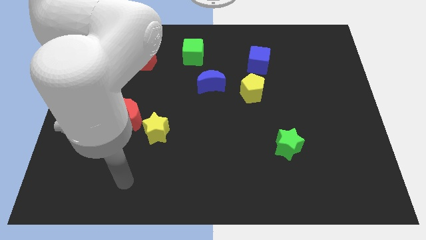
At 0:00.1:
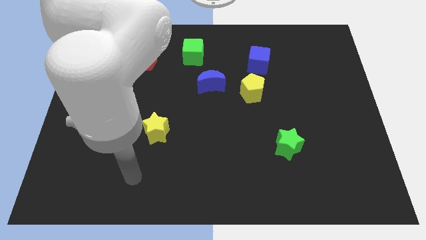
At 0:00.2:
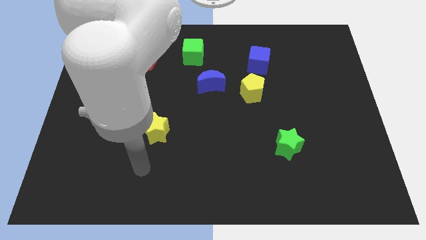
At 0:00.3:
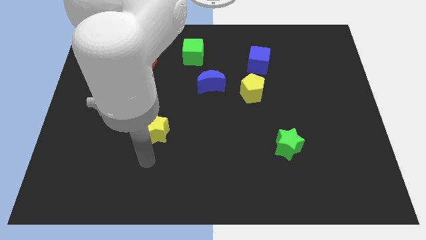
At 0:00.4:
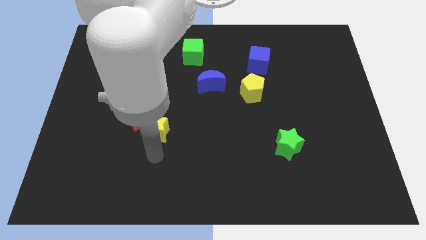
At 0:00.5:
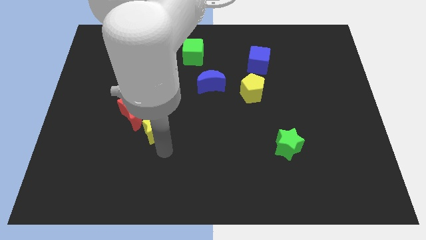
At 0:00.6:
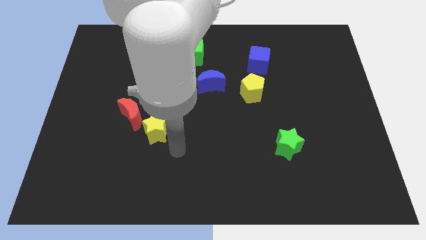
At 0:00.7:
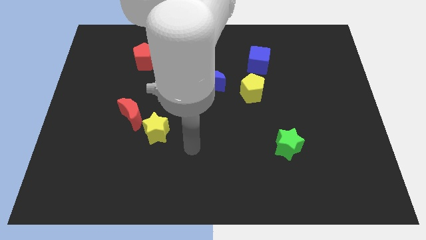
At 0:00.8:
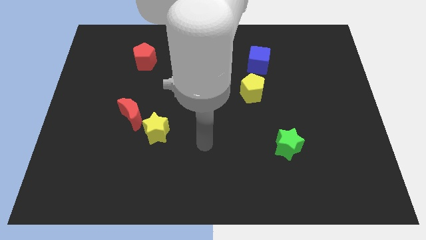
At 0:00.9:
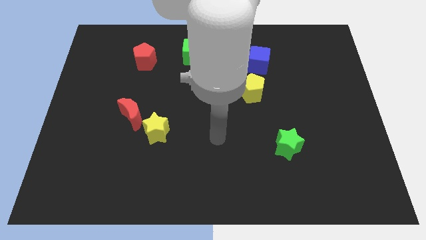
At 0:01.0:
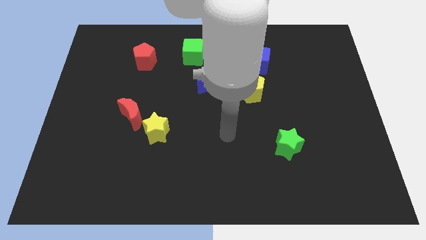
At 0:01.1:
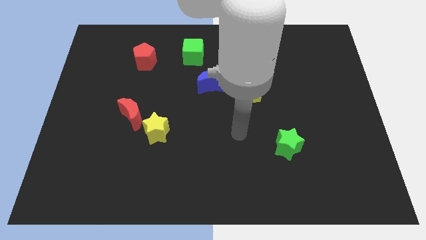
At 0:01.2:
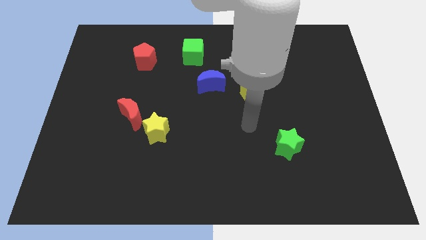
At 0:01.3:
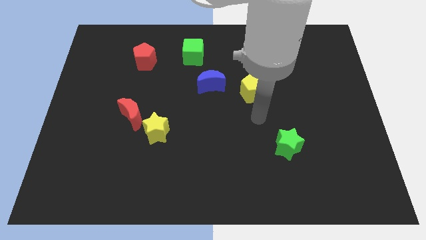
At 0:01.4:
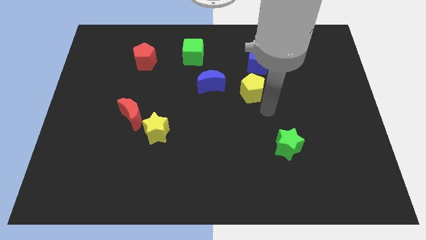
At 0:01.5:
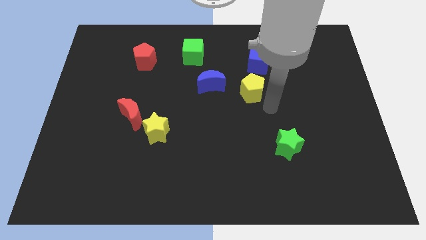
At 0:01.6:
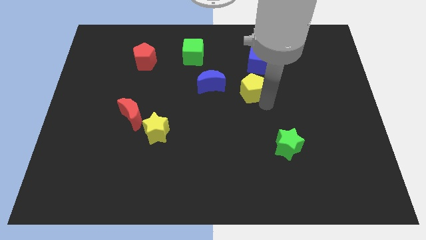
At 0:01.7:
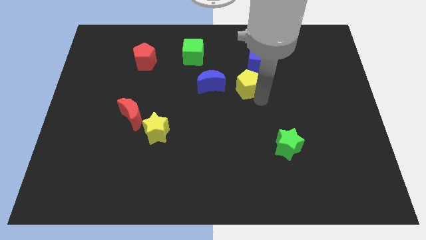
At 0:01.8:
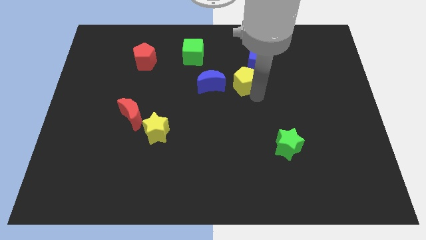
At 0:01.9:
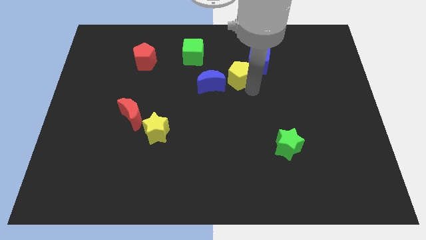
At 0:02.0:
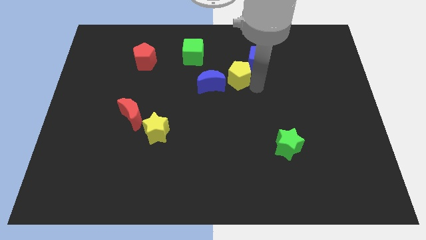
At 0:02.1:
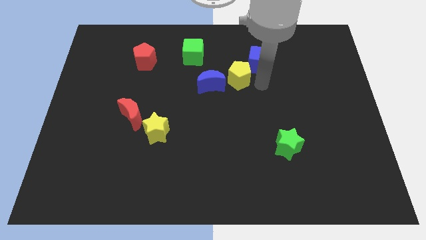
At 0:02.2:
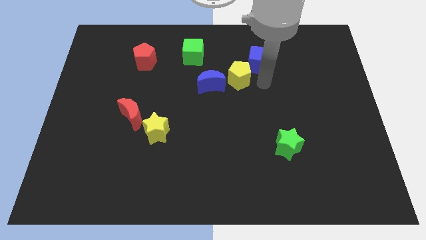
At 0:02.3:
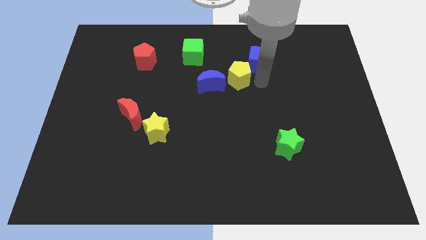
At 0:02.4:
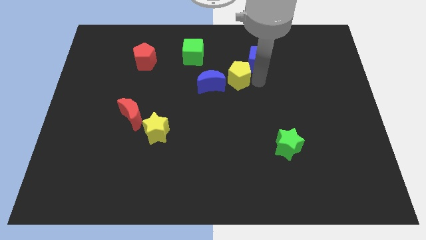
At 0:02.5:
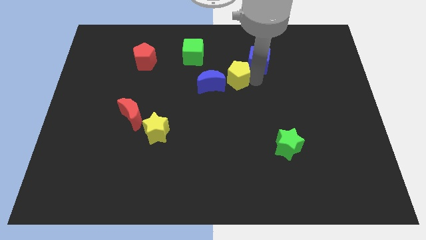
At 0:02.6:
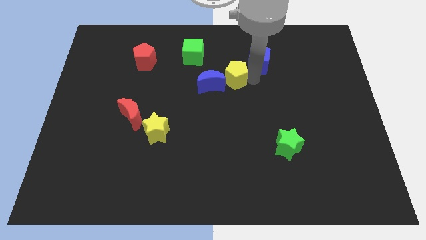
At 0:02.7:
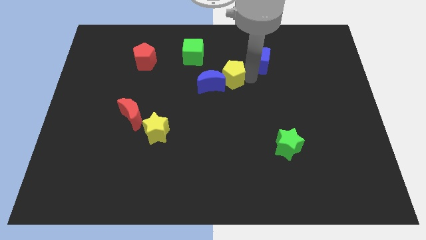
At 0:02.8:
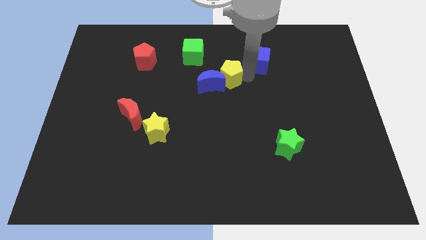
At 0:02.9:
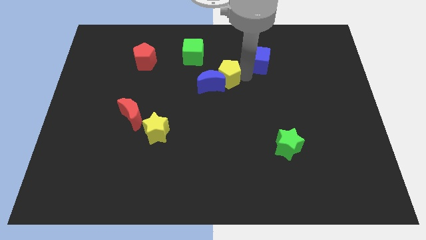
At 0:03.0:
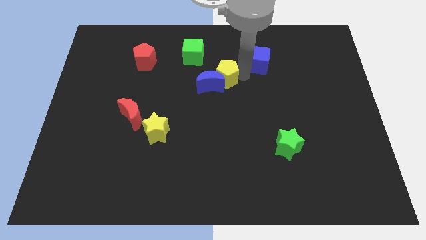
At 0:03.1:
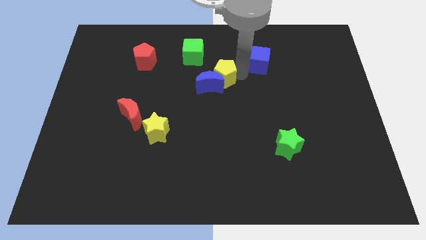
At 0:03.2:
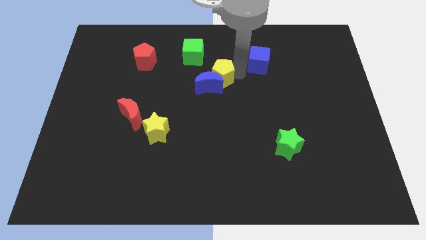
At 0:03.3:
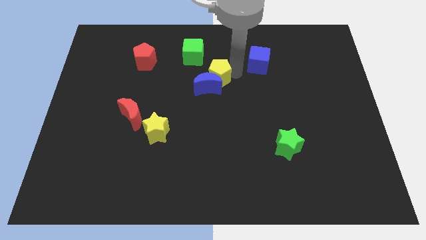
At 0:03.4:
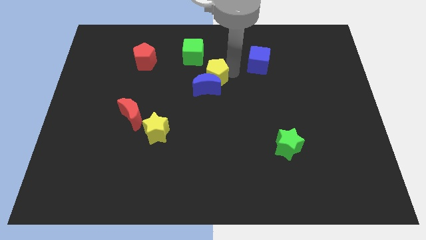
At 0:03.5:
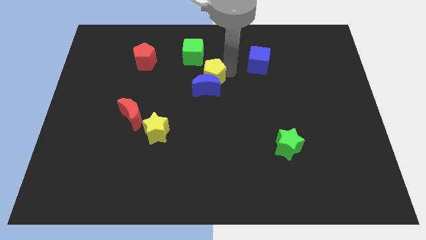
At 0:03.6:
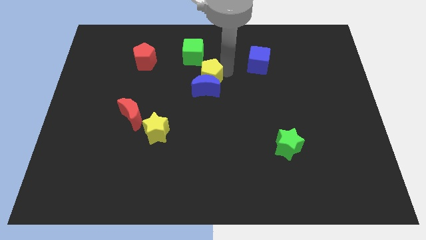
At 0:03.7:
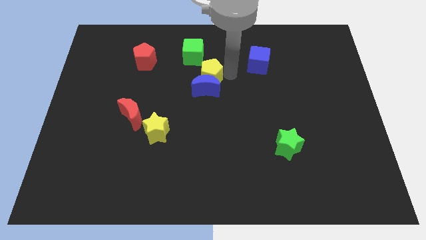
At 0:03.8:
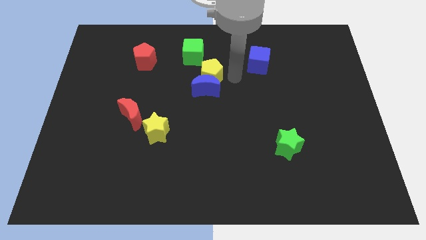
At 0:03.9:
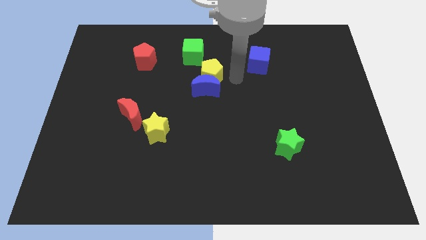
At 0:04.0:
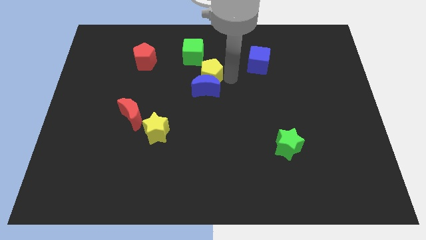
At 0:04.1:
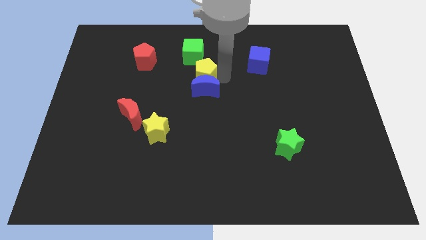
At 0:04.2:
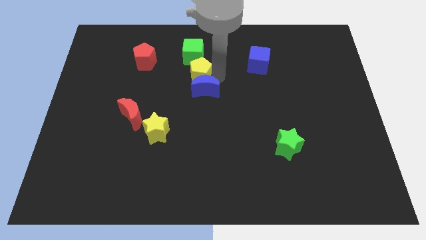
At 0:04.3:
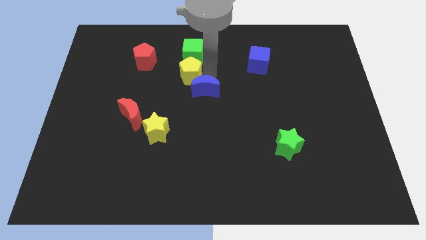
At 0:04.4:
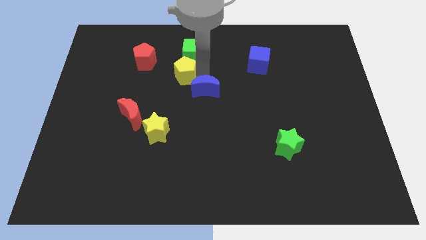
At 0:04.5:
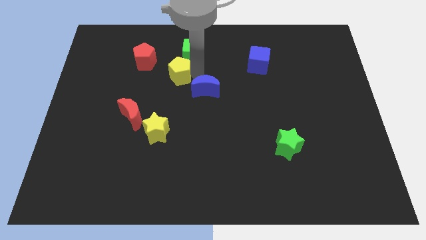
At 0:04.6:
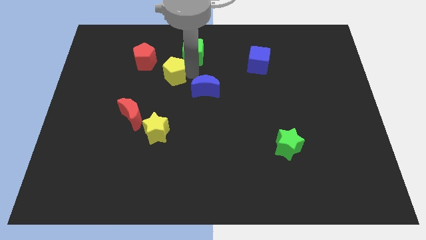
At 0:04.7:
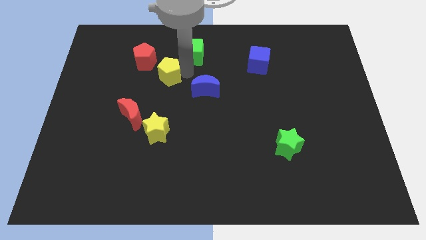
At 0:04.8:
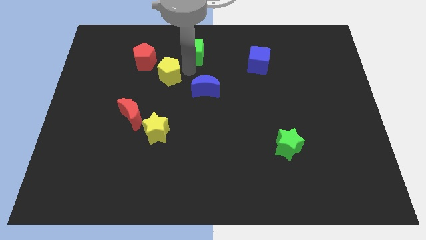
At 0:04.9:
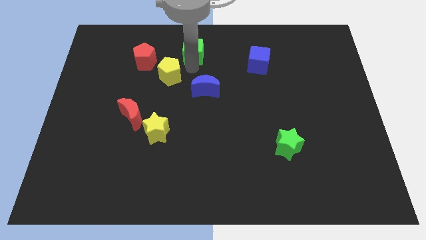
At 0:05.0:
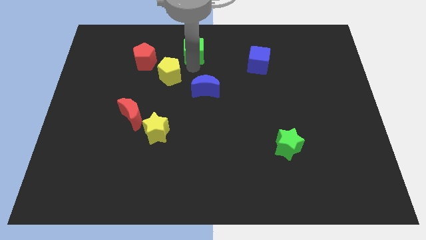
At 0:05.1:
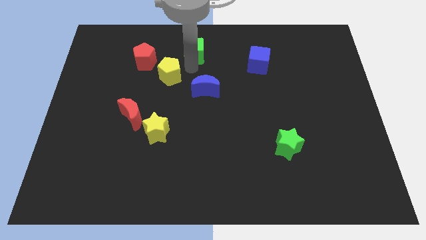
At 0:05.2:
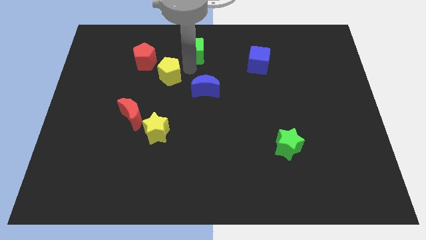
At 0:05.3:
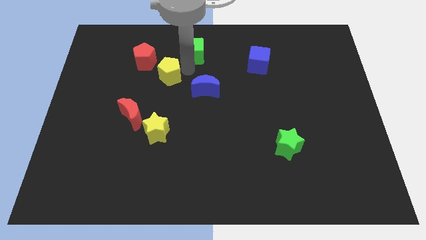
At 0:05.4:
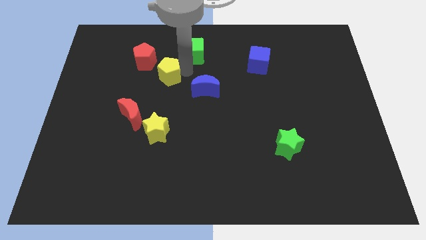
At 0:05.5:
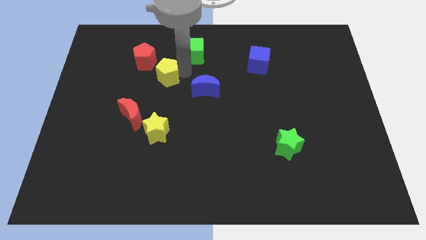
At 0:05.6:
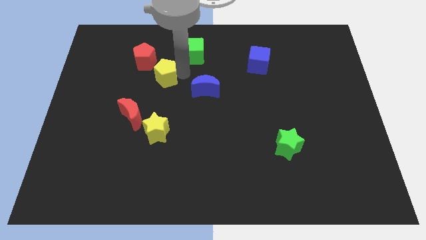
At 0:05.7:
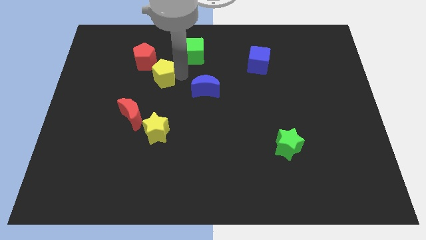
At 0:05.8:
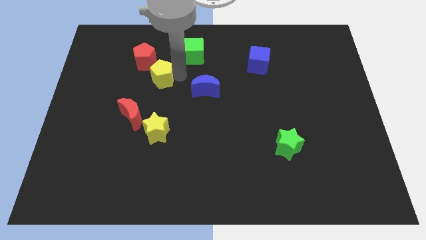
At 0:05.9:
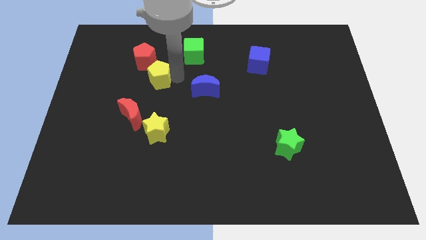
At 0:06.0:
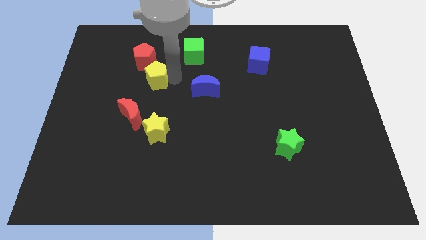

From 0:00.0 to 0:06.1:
move the yellow pentagon to the top side of the red moon

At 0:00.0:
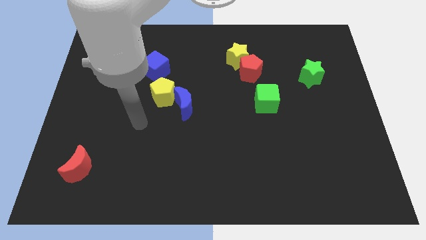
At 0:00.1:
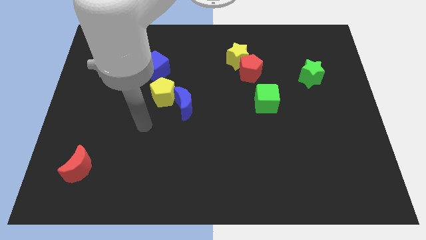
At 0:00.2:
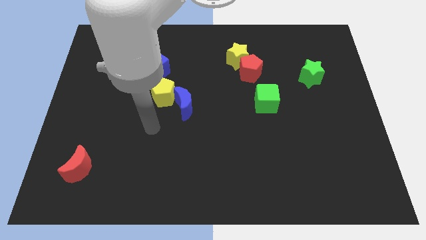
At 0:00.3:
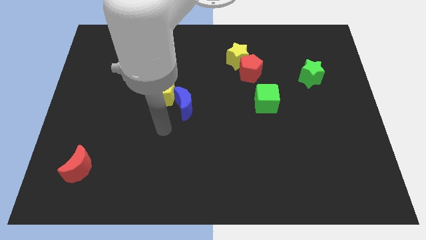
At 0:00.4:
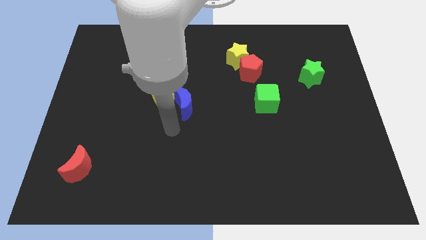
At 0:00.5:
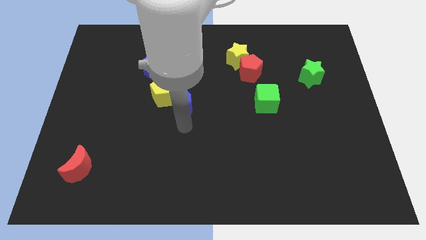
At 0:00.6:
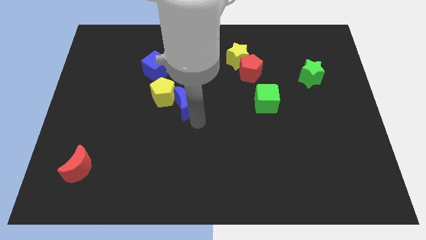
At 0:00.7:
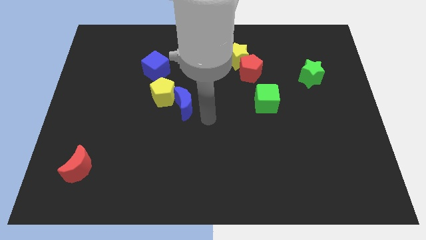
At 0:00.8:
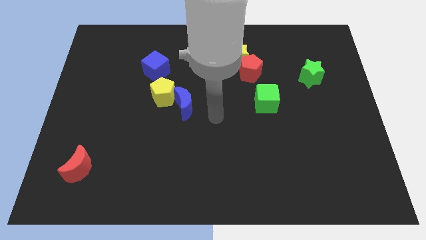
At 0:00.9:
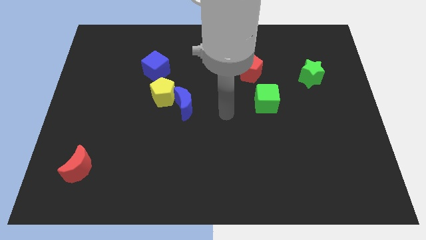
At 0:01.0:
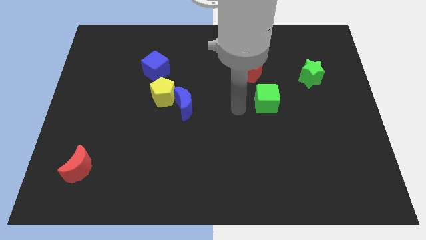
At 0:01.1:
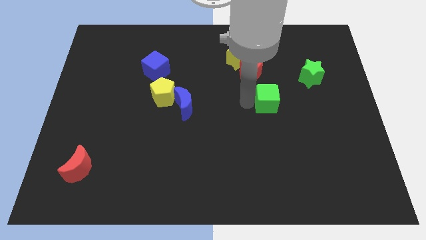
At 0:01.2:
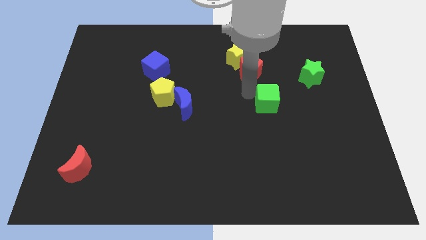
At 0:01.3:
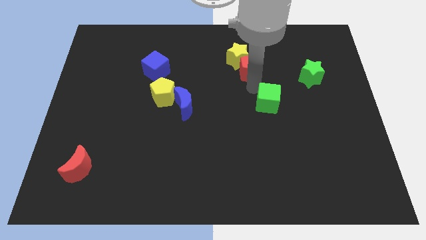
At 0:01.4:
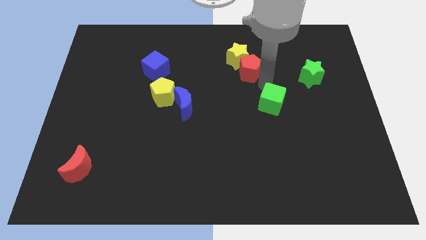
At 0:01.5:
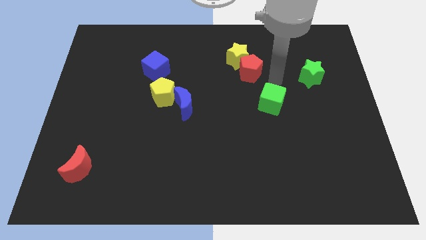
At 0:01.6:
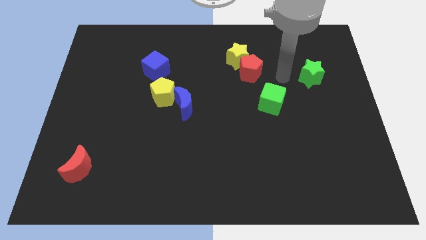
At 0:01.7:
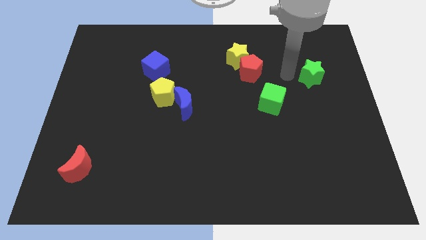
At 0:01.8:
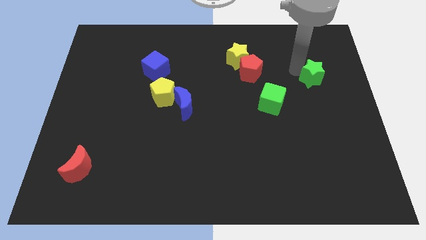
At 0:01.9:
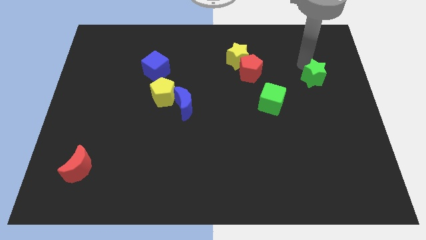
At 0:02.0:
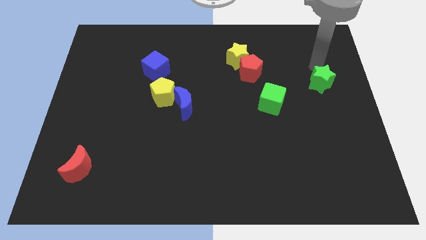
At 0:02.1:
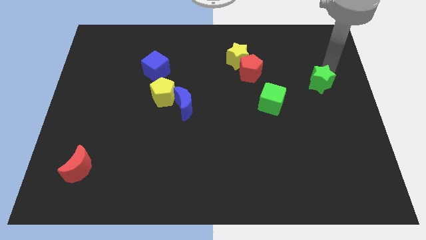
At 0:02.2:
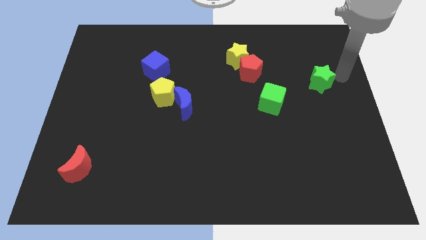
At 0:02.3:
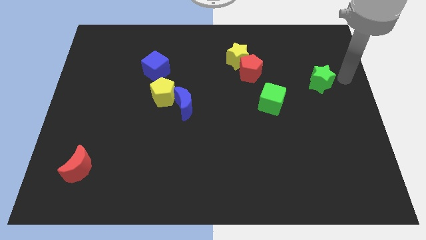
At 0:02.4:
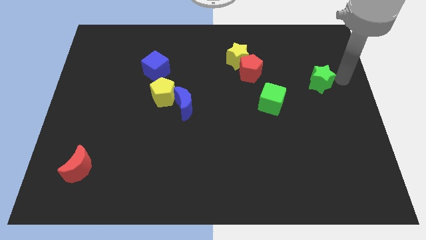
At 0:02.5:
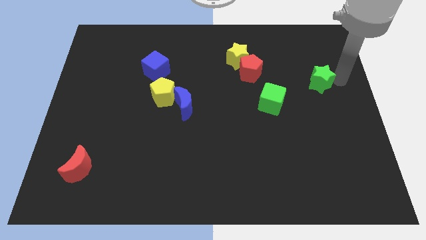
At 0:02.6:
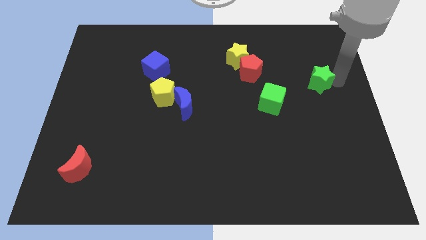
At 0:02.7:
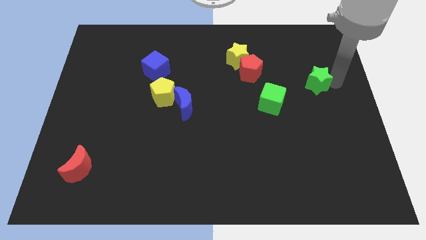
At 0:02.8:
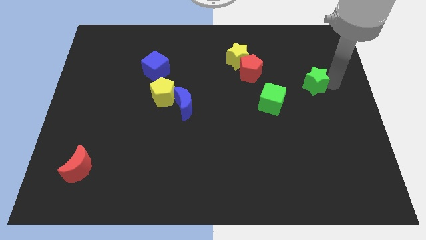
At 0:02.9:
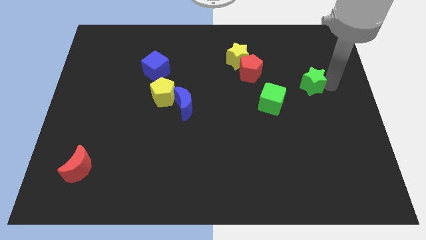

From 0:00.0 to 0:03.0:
put the green star to the top right of the green cube
